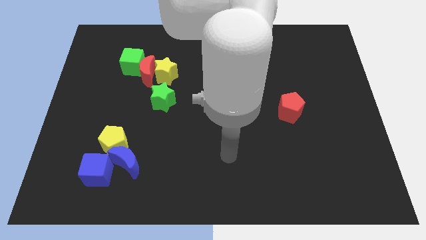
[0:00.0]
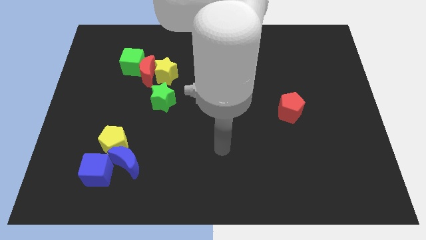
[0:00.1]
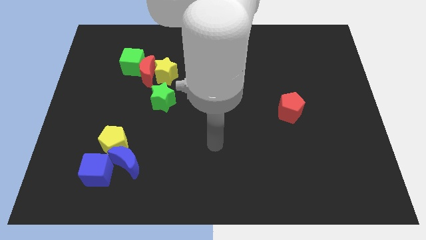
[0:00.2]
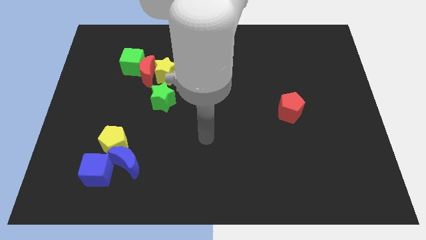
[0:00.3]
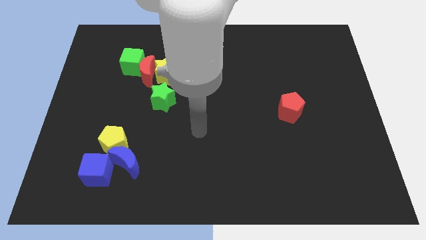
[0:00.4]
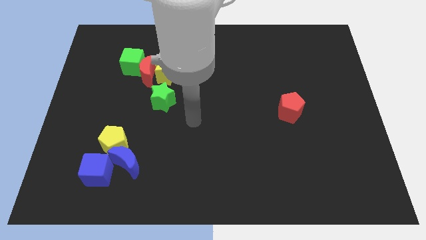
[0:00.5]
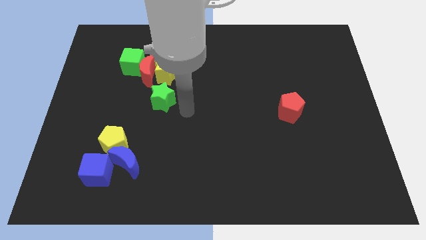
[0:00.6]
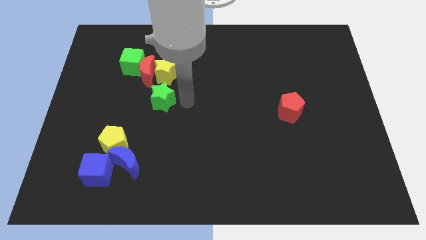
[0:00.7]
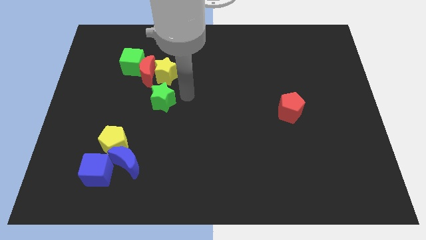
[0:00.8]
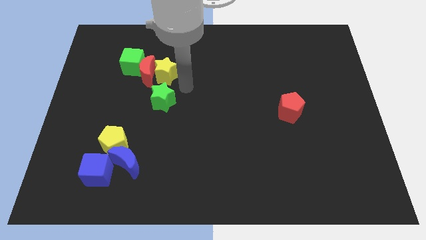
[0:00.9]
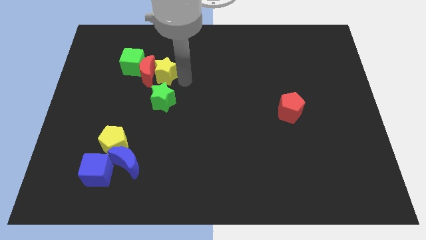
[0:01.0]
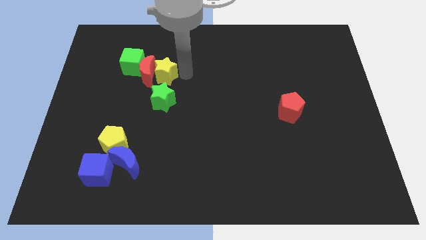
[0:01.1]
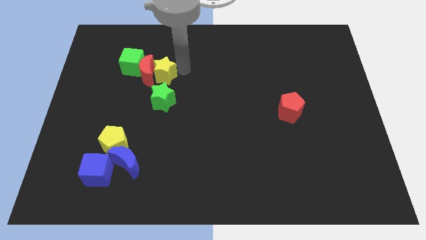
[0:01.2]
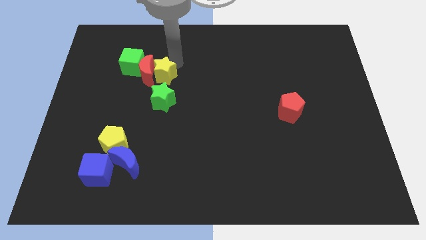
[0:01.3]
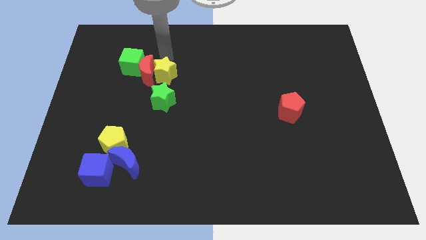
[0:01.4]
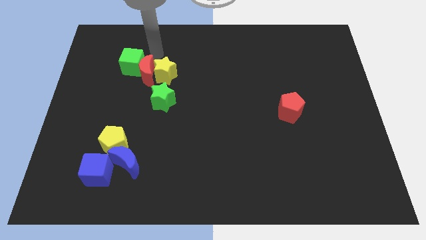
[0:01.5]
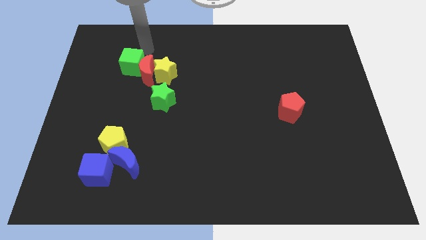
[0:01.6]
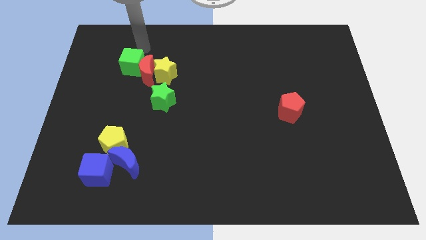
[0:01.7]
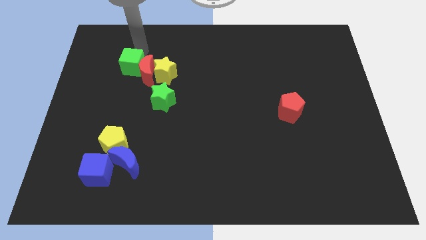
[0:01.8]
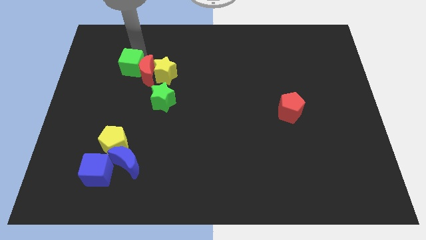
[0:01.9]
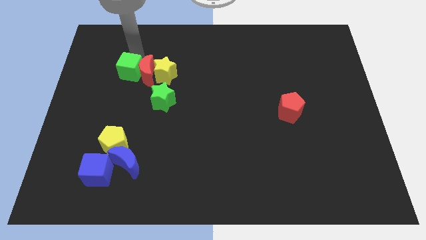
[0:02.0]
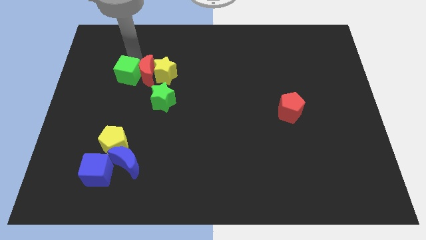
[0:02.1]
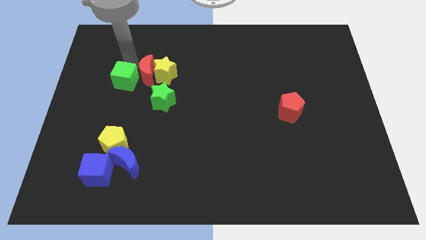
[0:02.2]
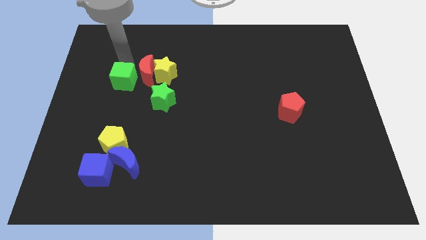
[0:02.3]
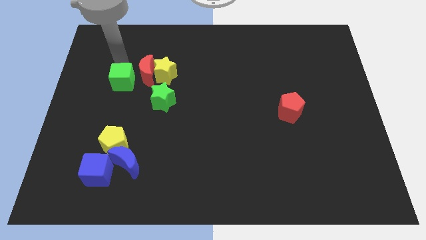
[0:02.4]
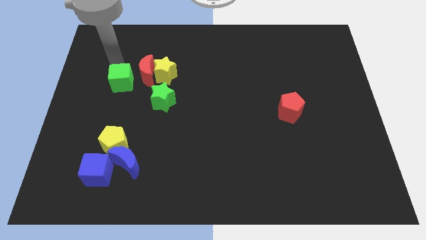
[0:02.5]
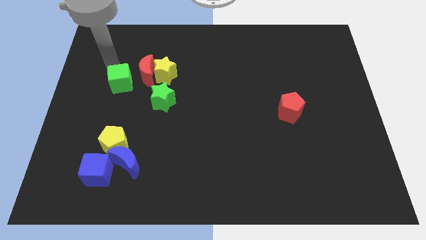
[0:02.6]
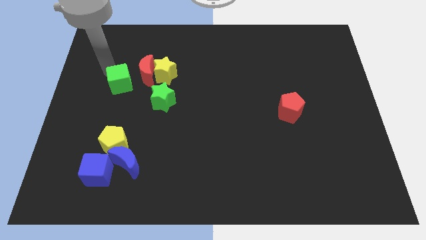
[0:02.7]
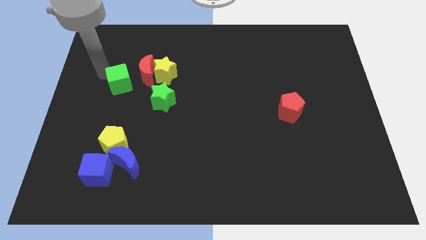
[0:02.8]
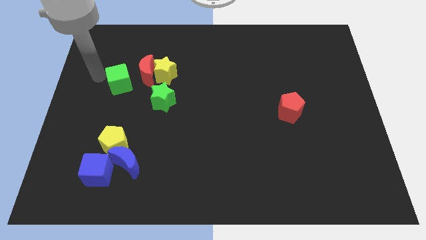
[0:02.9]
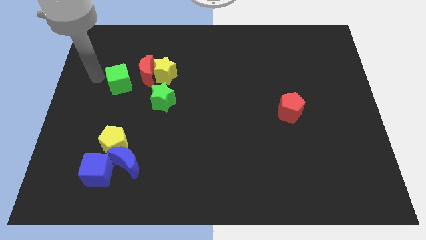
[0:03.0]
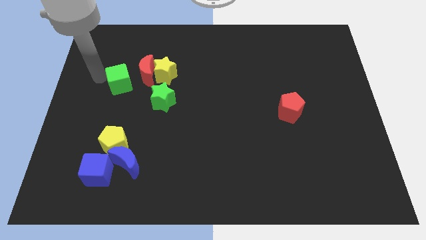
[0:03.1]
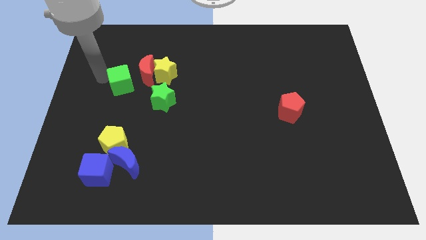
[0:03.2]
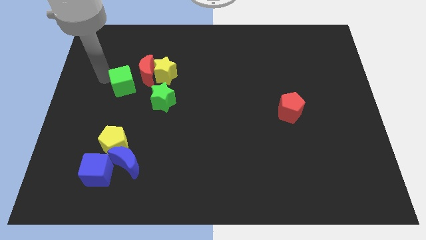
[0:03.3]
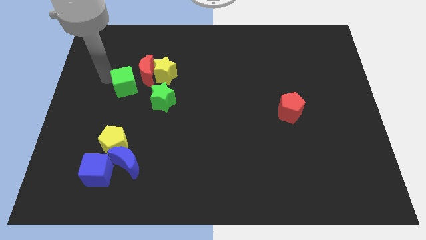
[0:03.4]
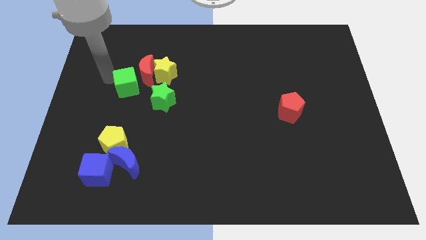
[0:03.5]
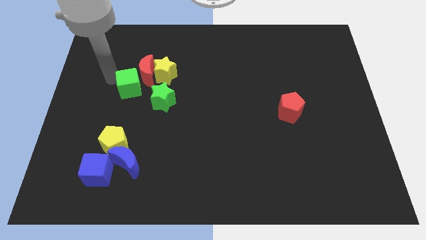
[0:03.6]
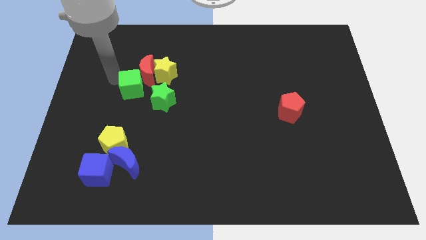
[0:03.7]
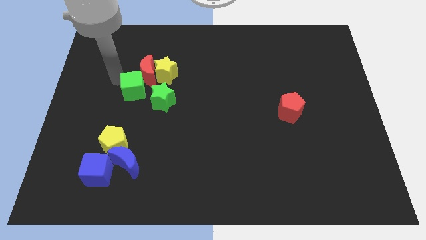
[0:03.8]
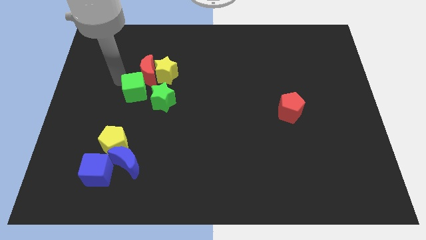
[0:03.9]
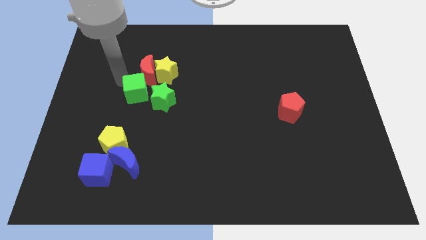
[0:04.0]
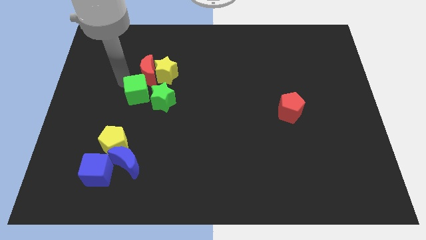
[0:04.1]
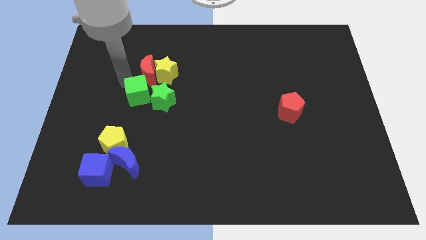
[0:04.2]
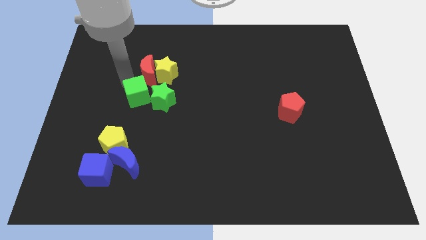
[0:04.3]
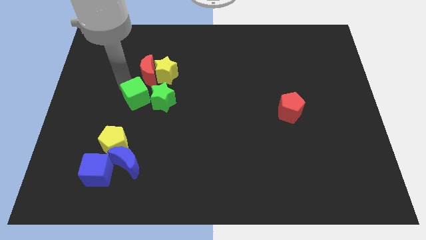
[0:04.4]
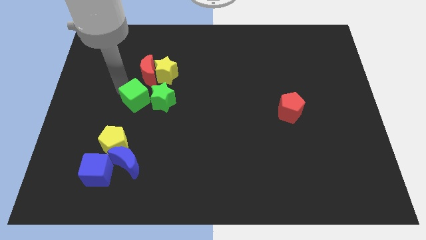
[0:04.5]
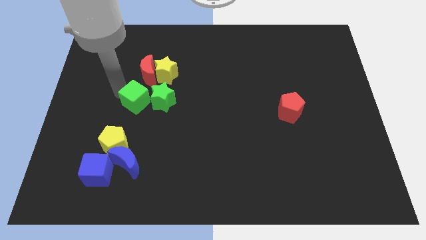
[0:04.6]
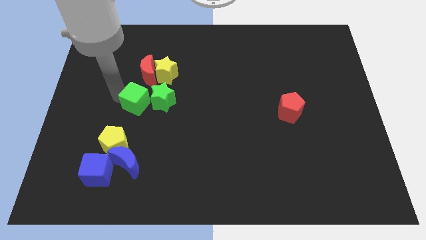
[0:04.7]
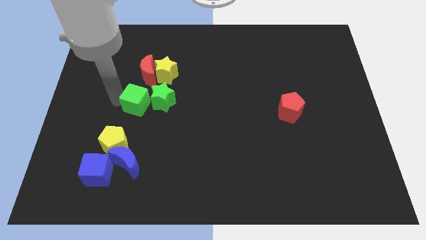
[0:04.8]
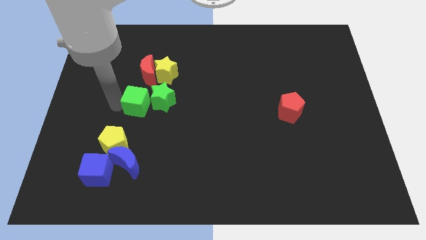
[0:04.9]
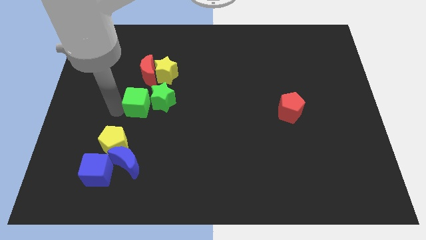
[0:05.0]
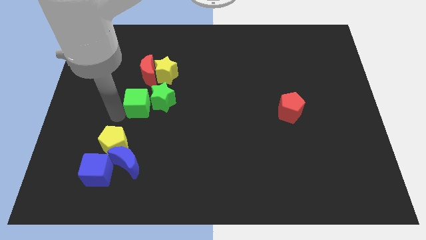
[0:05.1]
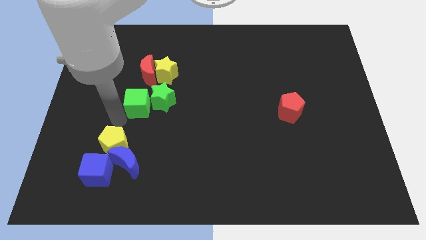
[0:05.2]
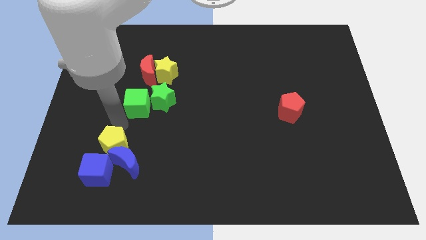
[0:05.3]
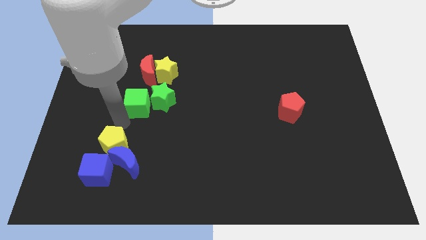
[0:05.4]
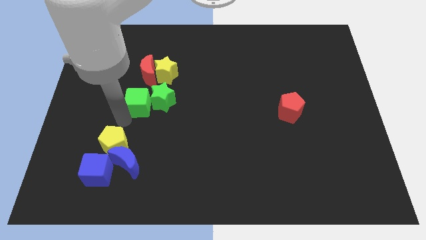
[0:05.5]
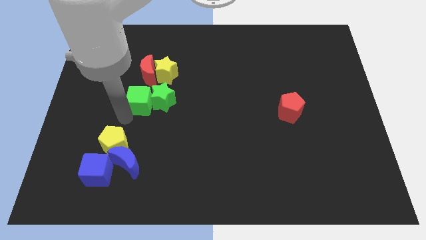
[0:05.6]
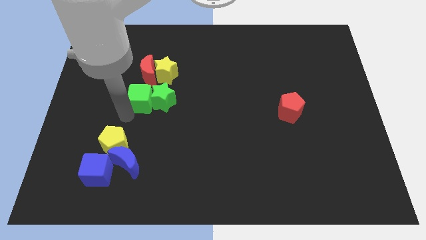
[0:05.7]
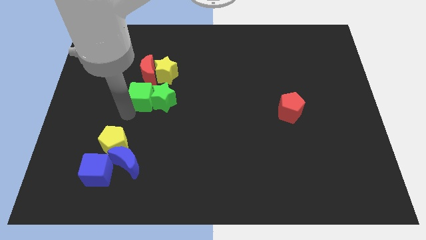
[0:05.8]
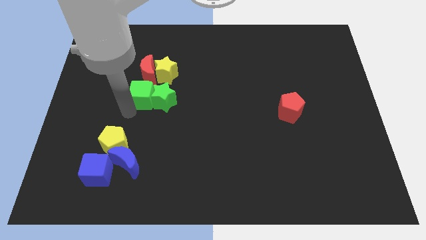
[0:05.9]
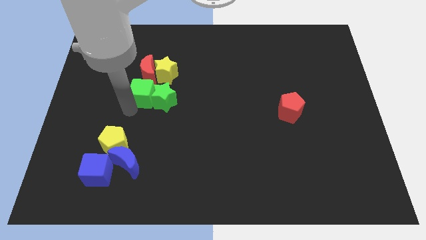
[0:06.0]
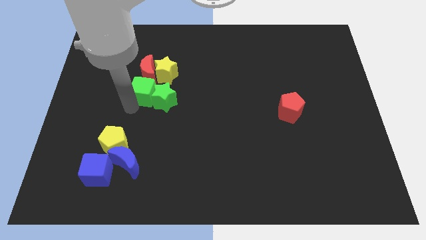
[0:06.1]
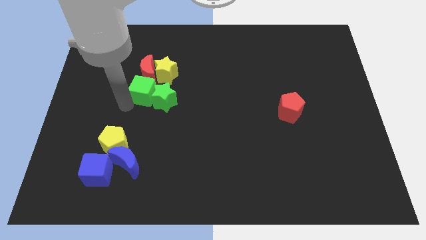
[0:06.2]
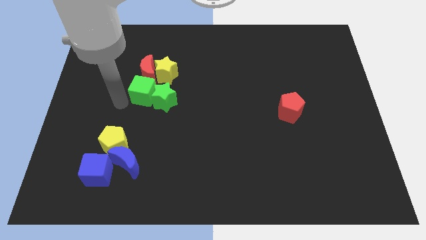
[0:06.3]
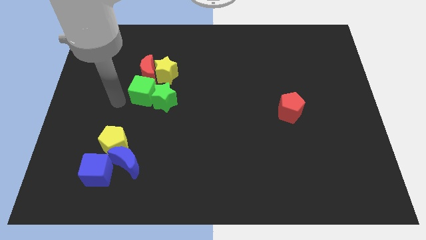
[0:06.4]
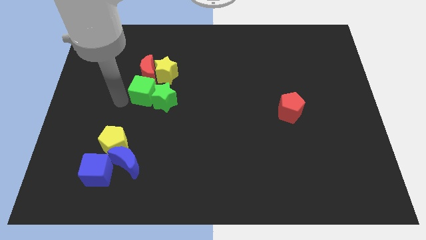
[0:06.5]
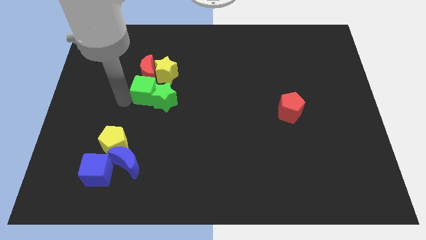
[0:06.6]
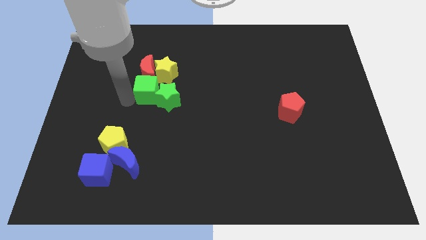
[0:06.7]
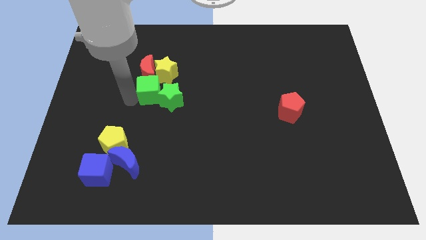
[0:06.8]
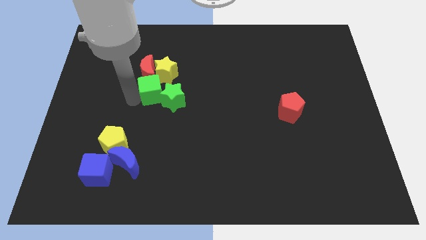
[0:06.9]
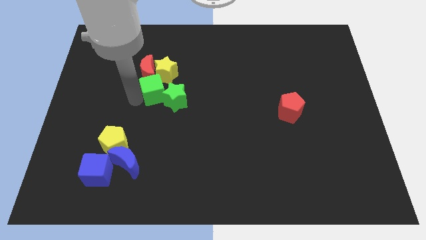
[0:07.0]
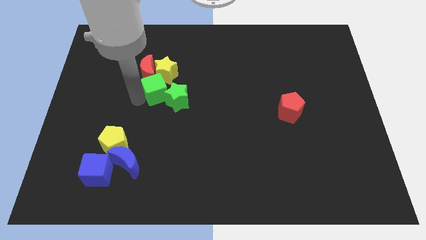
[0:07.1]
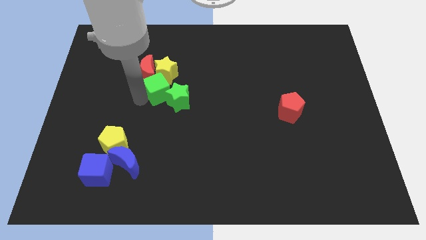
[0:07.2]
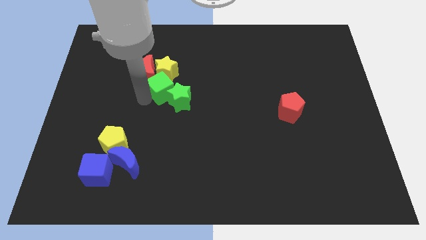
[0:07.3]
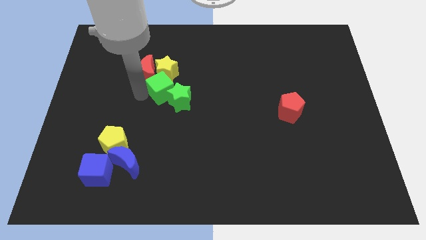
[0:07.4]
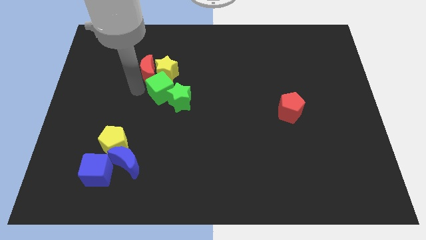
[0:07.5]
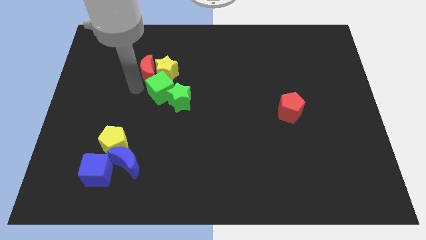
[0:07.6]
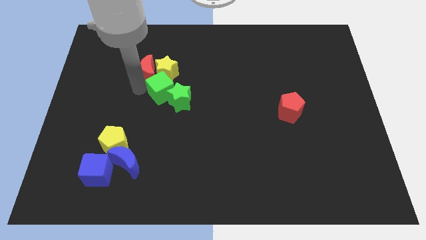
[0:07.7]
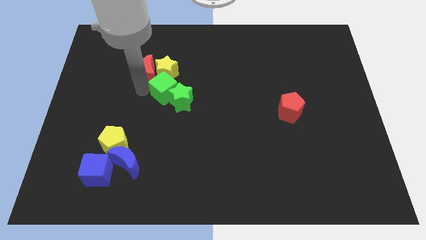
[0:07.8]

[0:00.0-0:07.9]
move the green cube to the middle

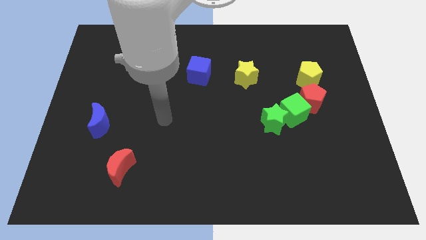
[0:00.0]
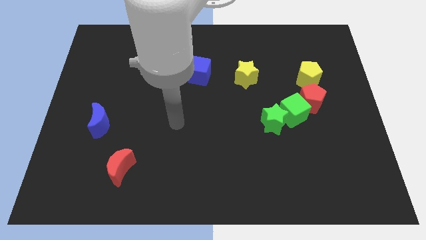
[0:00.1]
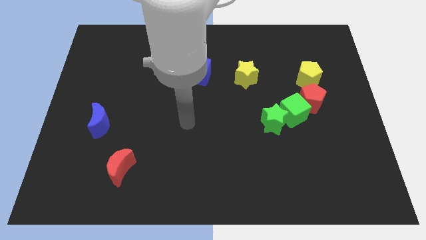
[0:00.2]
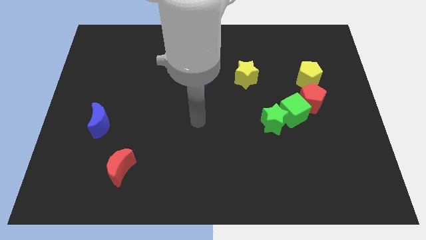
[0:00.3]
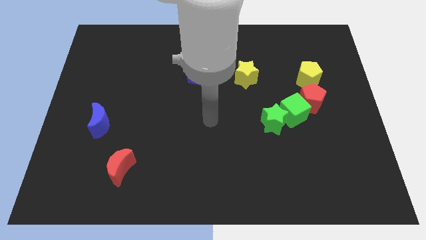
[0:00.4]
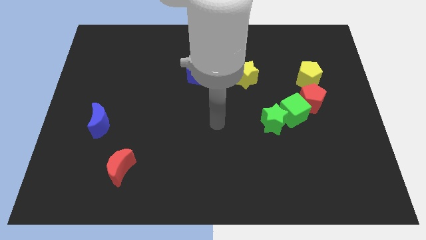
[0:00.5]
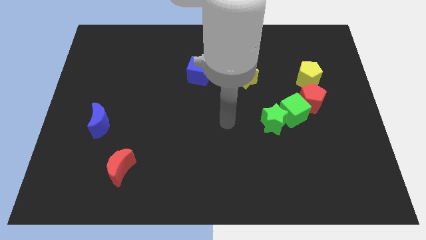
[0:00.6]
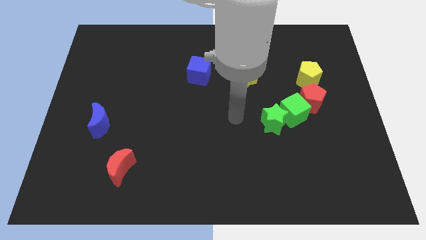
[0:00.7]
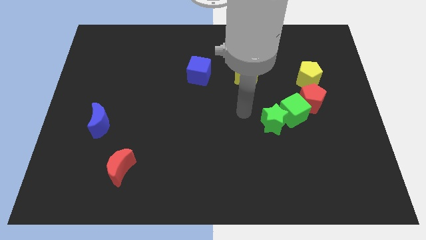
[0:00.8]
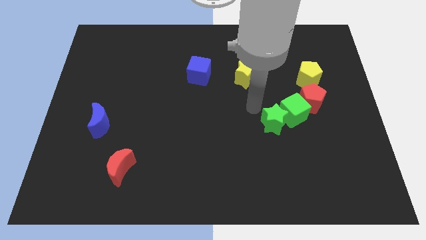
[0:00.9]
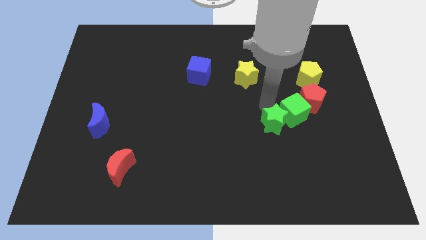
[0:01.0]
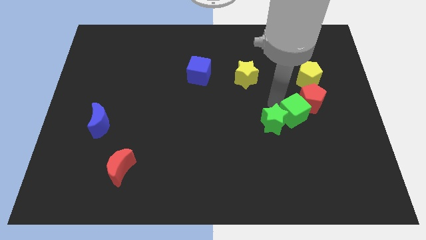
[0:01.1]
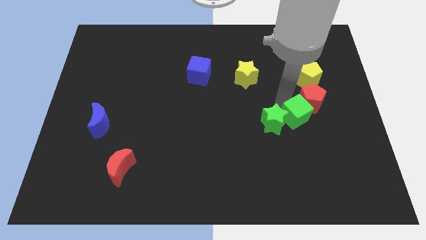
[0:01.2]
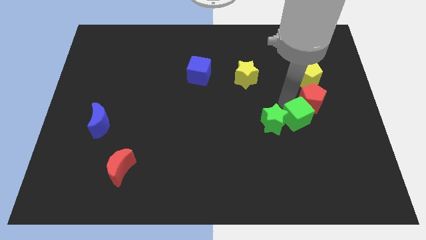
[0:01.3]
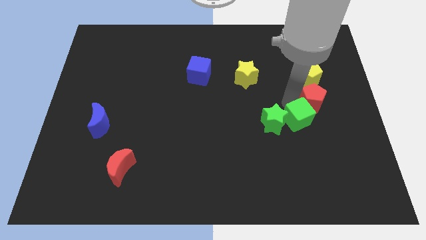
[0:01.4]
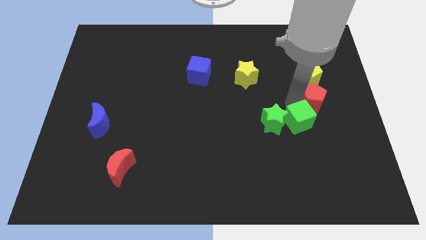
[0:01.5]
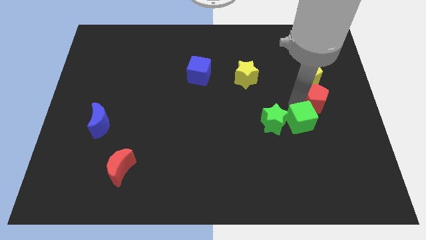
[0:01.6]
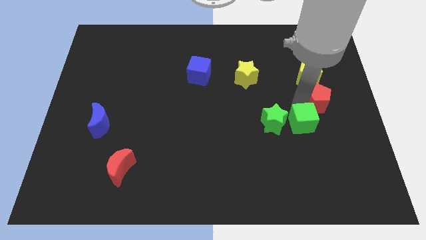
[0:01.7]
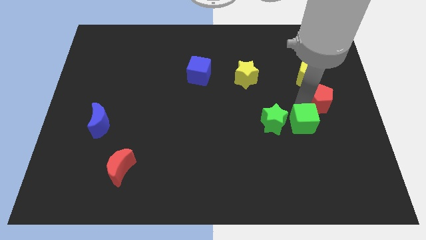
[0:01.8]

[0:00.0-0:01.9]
slide the red pentagon to the center right
